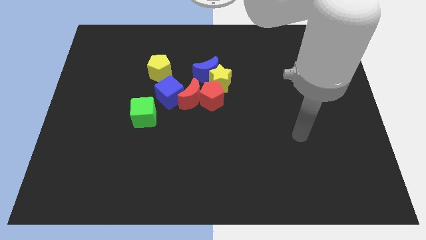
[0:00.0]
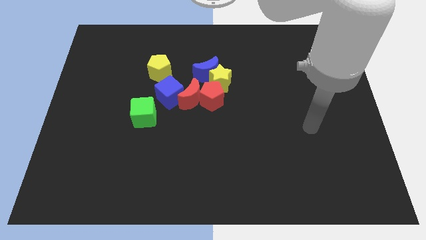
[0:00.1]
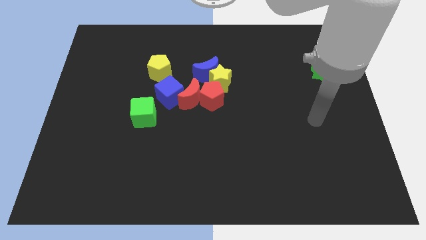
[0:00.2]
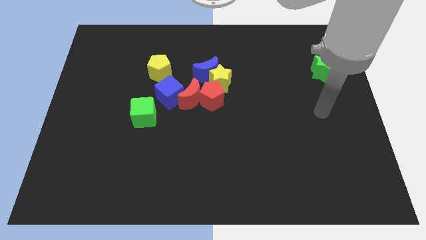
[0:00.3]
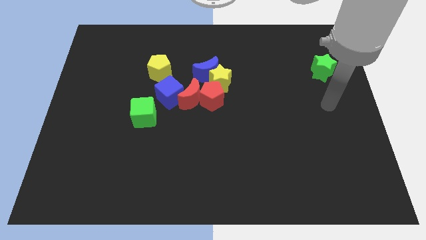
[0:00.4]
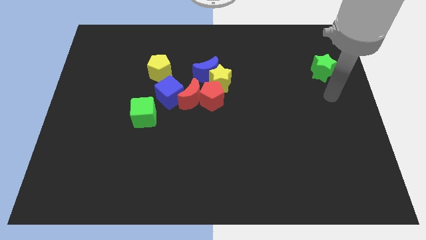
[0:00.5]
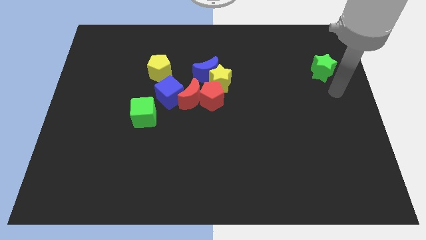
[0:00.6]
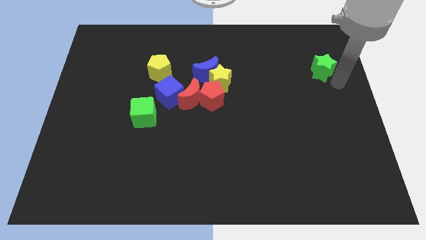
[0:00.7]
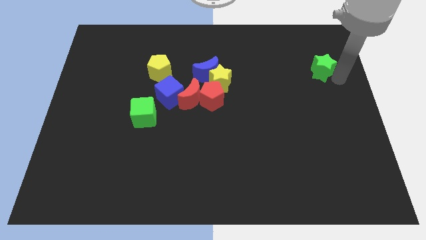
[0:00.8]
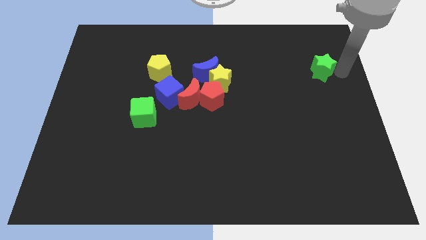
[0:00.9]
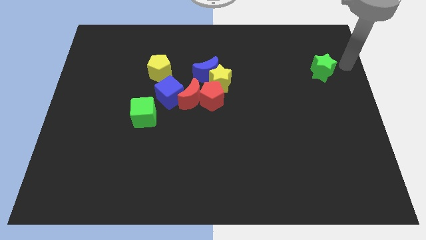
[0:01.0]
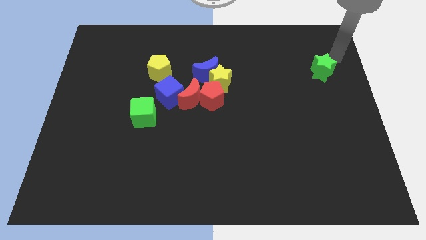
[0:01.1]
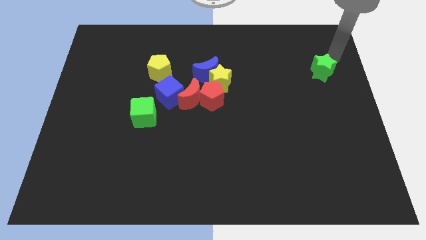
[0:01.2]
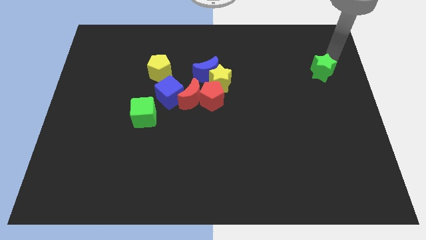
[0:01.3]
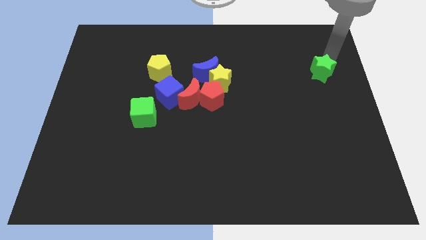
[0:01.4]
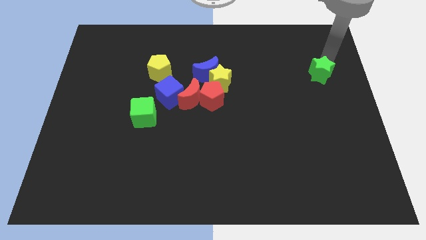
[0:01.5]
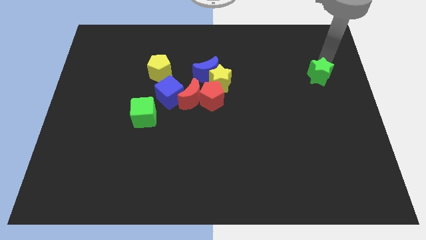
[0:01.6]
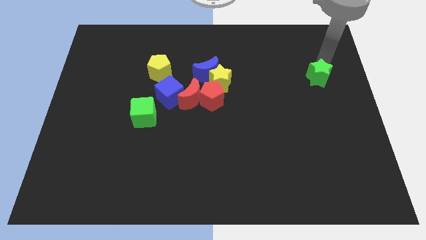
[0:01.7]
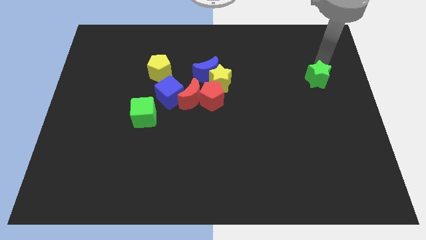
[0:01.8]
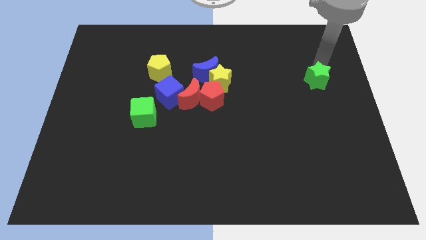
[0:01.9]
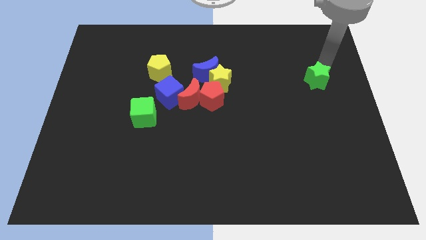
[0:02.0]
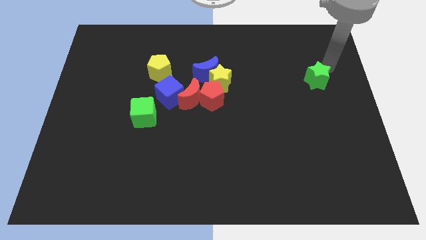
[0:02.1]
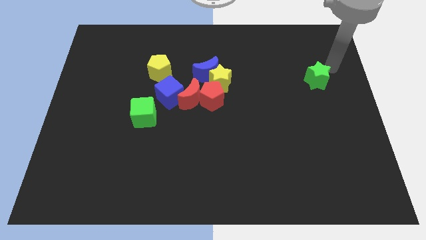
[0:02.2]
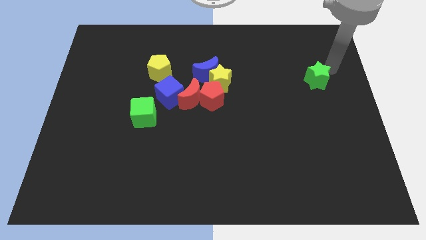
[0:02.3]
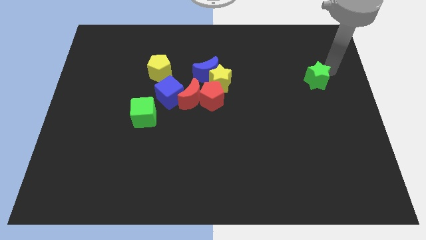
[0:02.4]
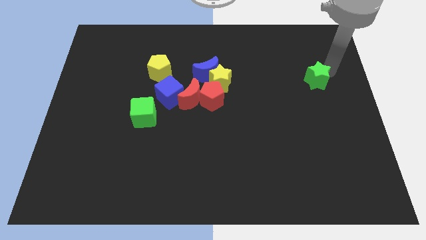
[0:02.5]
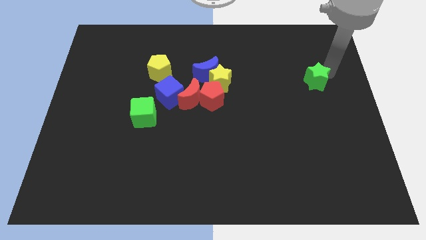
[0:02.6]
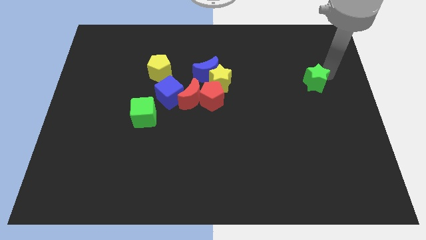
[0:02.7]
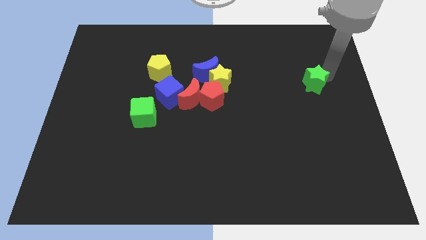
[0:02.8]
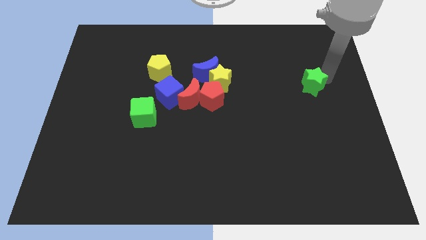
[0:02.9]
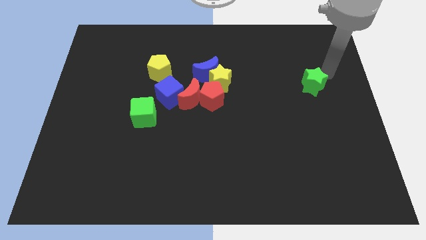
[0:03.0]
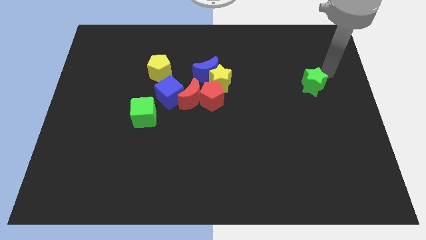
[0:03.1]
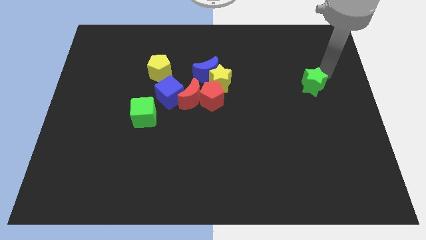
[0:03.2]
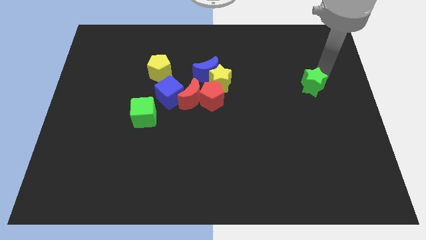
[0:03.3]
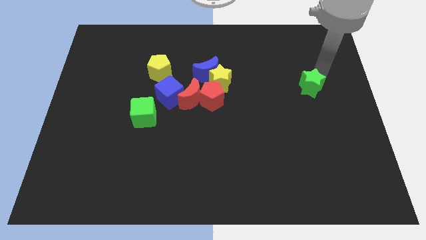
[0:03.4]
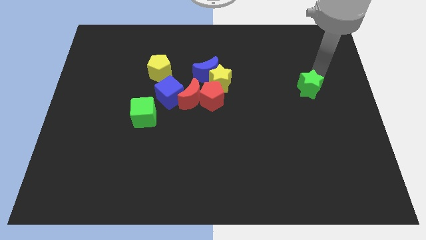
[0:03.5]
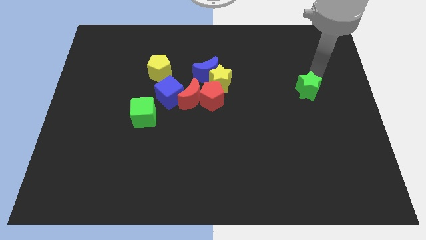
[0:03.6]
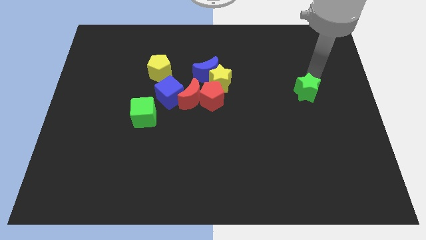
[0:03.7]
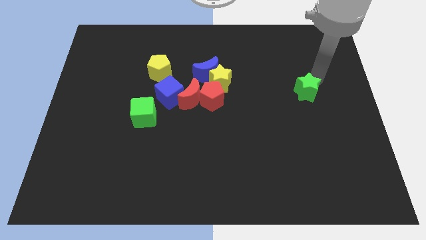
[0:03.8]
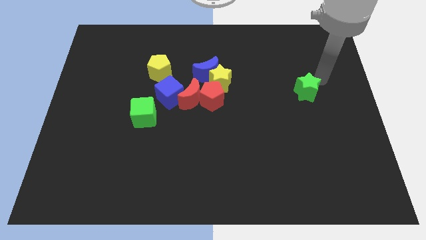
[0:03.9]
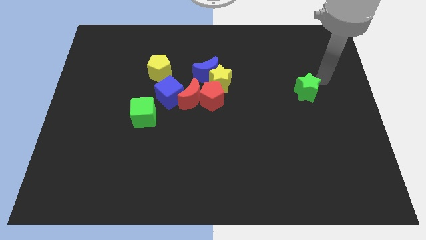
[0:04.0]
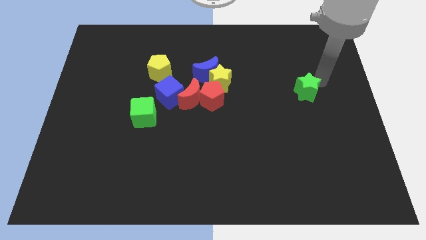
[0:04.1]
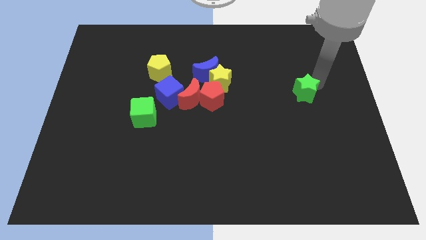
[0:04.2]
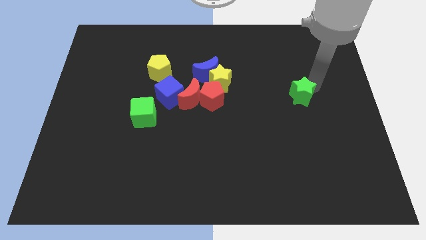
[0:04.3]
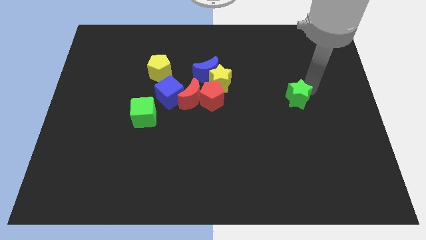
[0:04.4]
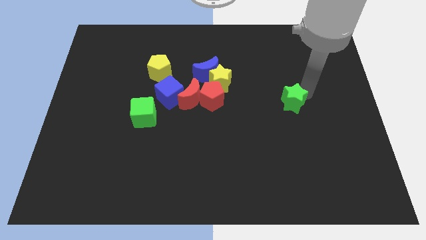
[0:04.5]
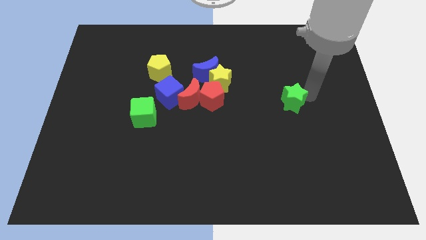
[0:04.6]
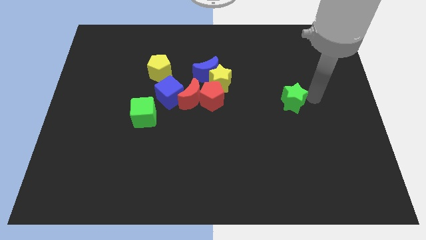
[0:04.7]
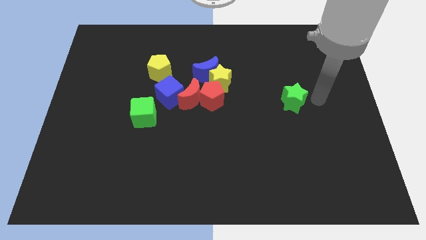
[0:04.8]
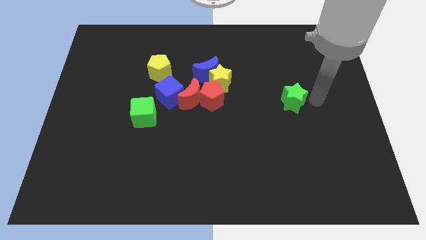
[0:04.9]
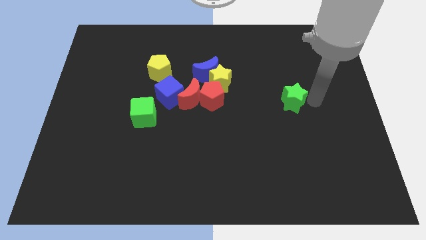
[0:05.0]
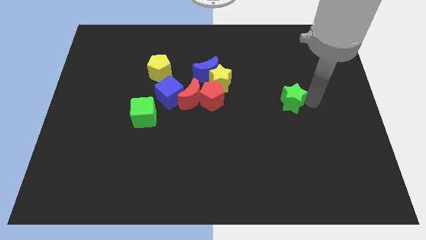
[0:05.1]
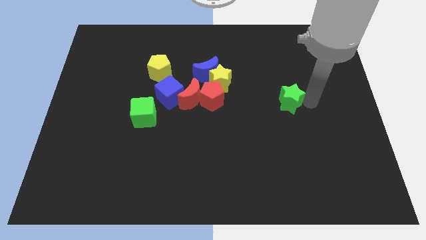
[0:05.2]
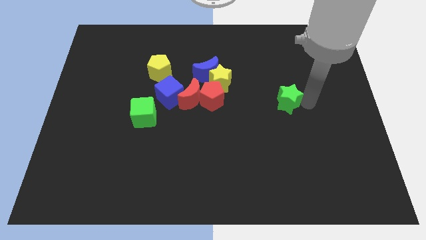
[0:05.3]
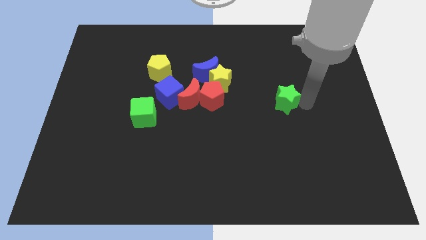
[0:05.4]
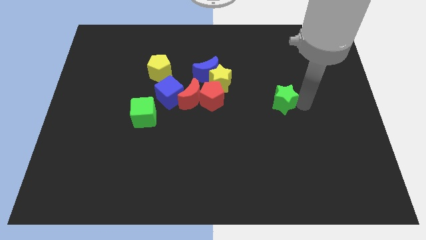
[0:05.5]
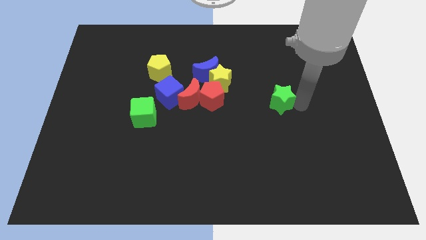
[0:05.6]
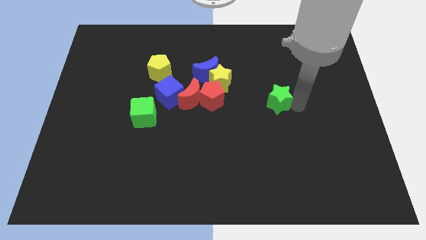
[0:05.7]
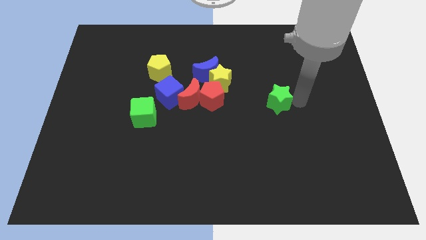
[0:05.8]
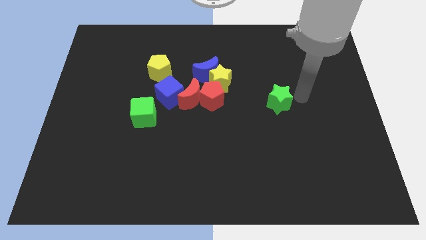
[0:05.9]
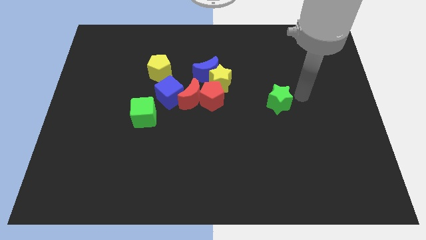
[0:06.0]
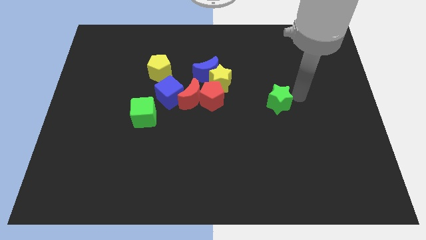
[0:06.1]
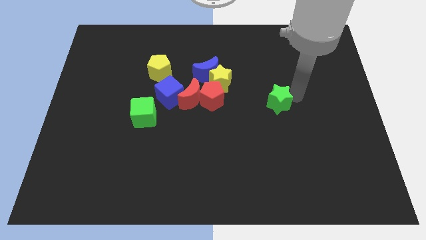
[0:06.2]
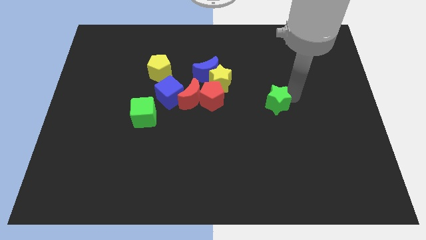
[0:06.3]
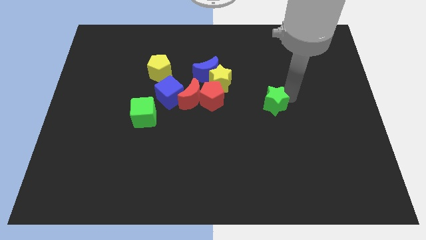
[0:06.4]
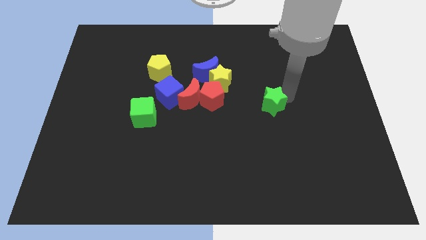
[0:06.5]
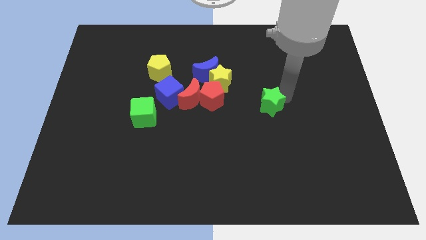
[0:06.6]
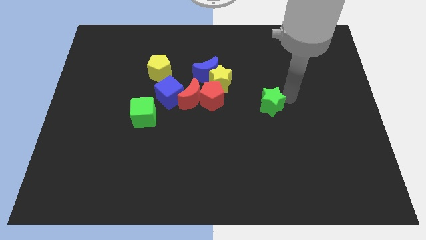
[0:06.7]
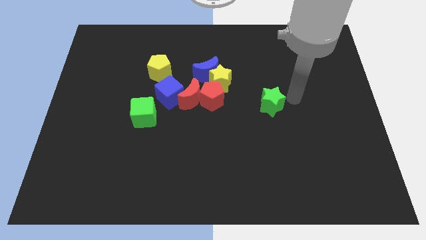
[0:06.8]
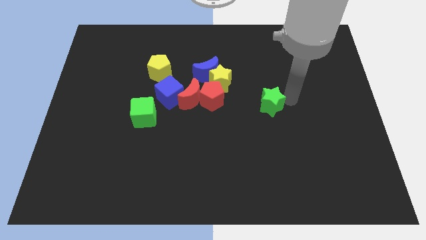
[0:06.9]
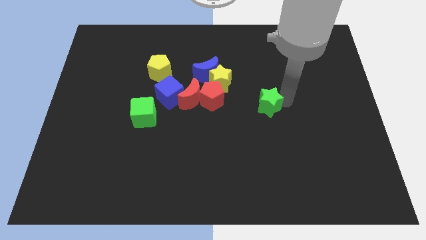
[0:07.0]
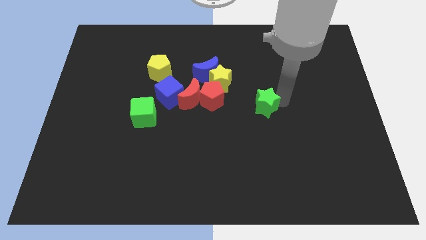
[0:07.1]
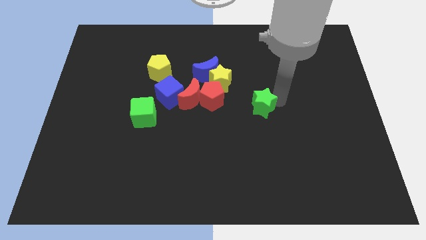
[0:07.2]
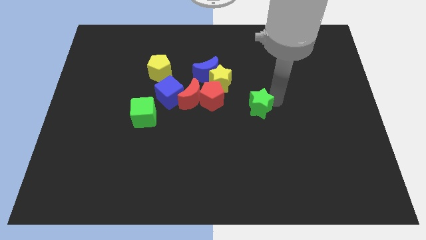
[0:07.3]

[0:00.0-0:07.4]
move the green star downwards and then to the left

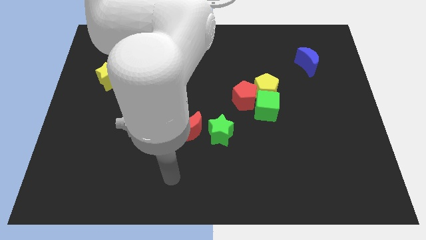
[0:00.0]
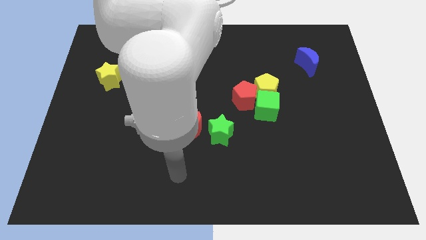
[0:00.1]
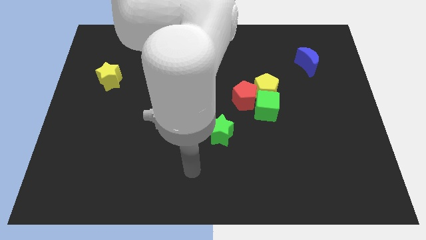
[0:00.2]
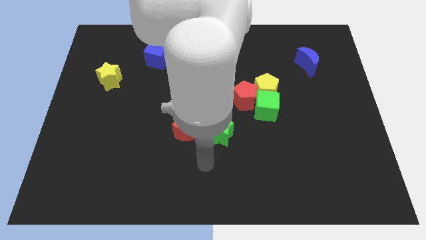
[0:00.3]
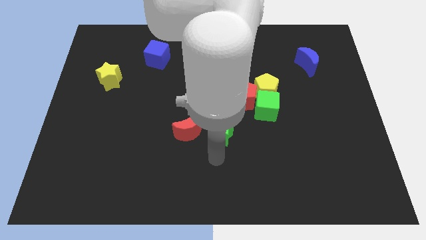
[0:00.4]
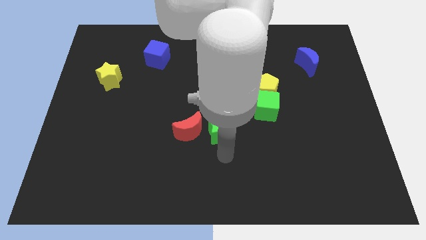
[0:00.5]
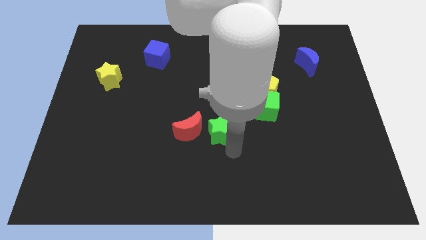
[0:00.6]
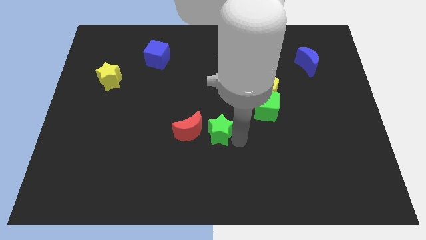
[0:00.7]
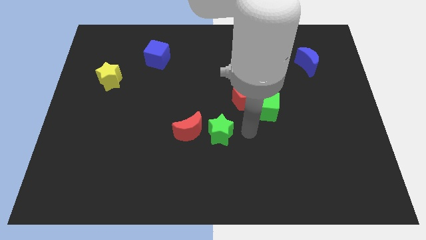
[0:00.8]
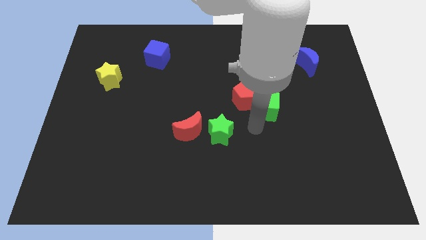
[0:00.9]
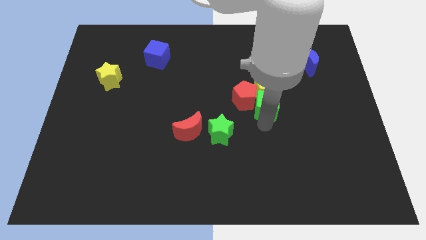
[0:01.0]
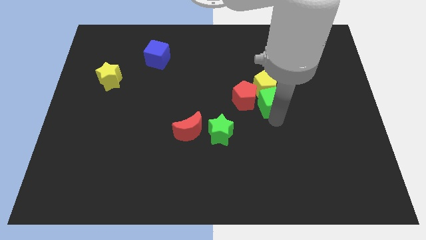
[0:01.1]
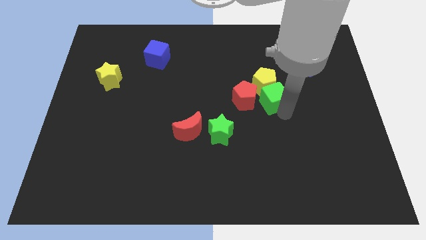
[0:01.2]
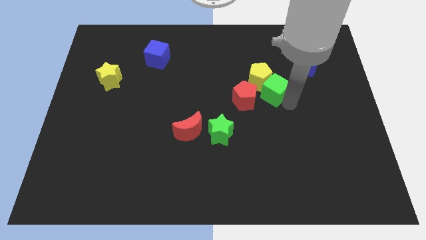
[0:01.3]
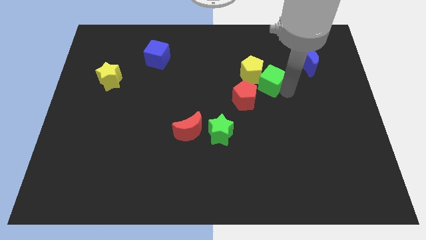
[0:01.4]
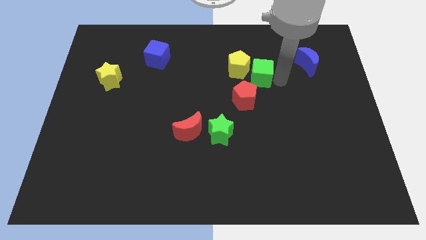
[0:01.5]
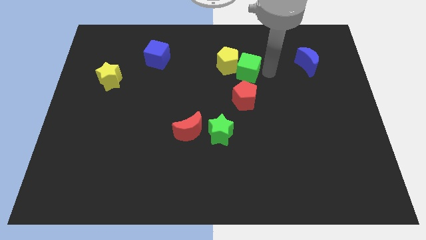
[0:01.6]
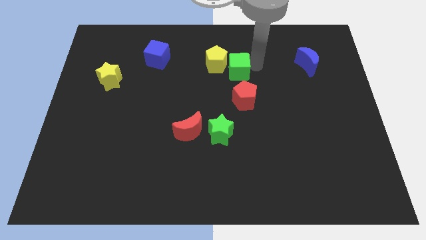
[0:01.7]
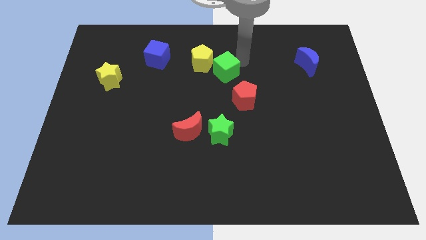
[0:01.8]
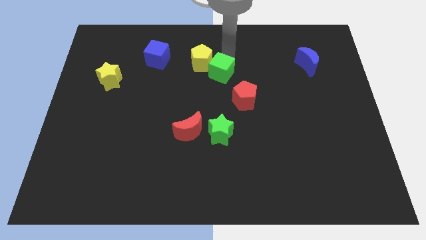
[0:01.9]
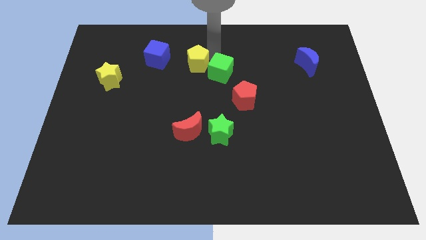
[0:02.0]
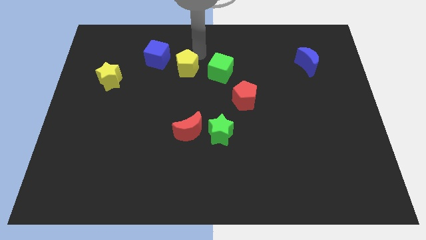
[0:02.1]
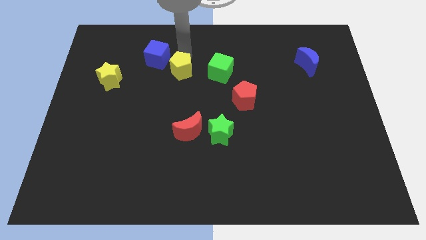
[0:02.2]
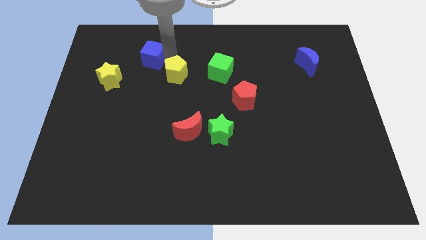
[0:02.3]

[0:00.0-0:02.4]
move the yellow pentagon to the left
